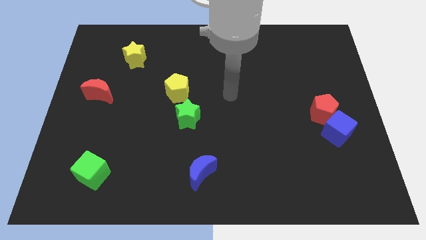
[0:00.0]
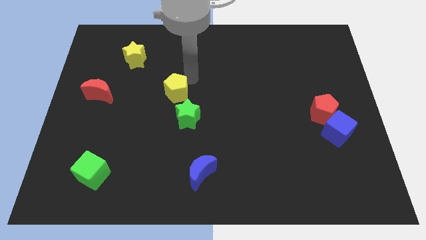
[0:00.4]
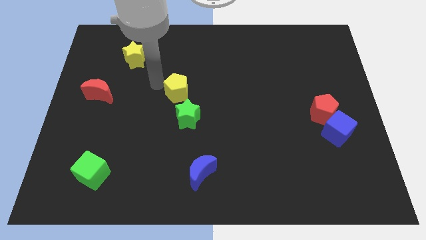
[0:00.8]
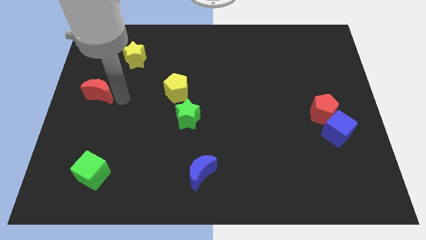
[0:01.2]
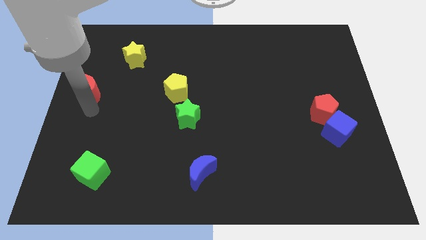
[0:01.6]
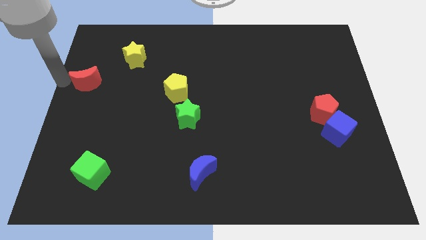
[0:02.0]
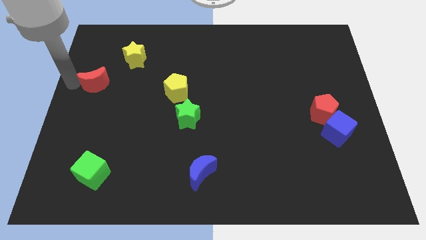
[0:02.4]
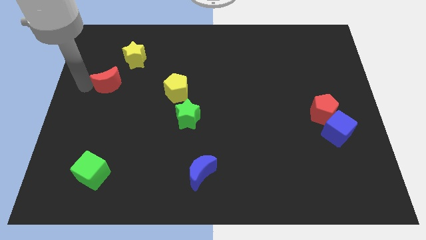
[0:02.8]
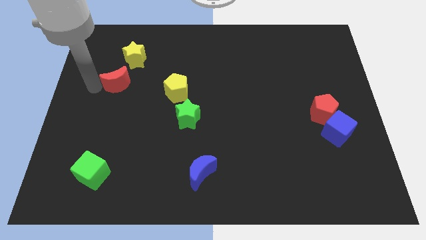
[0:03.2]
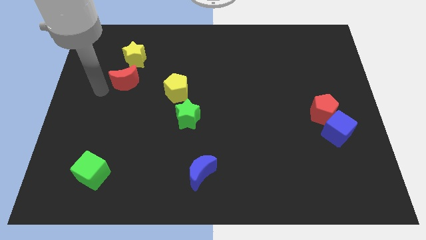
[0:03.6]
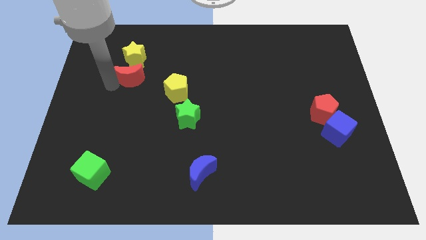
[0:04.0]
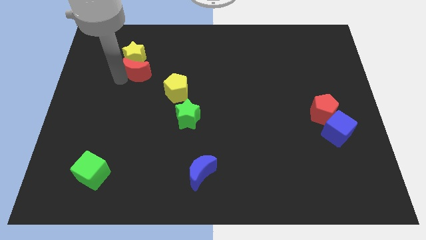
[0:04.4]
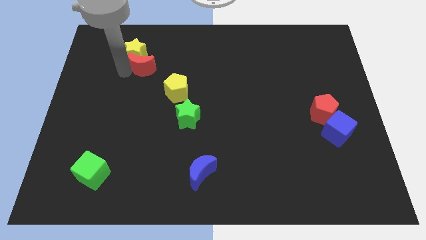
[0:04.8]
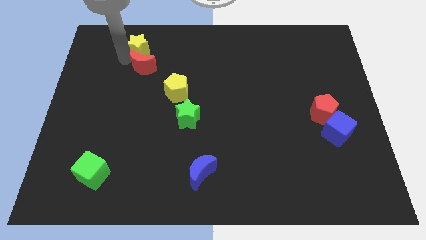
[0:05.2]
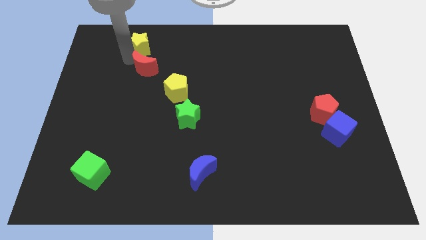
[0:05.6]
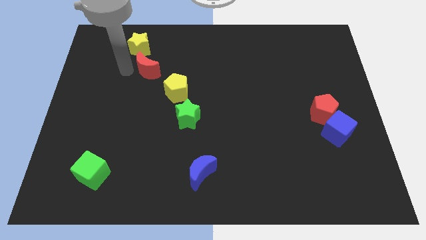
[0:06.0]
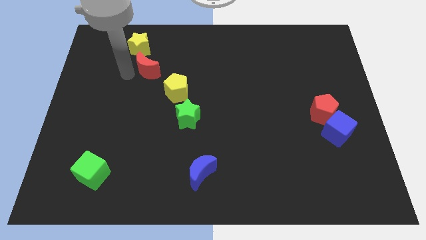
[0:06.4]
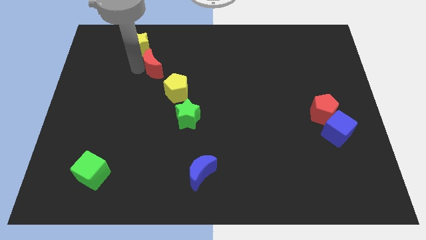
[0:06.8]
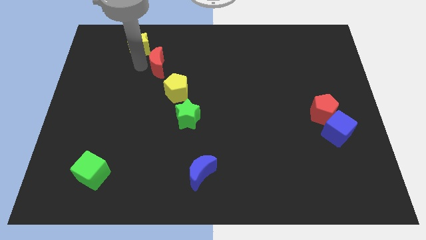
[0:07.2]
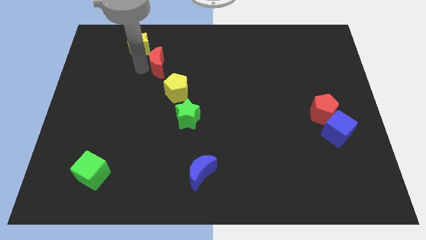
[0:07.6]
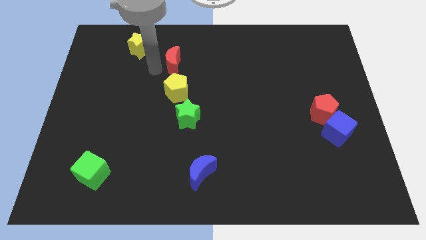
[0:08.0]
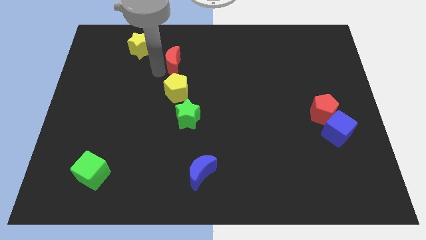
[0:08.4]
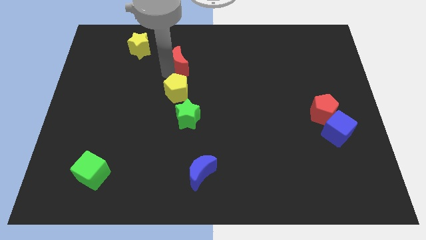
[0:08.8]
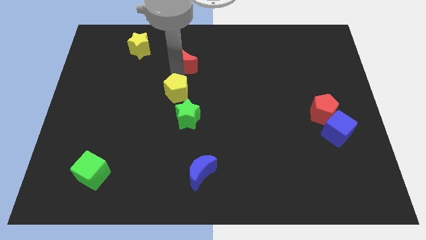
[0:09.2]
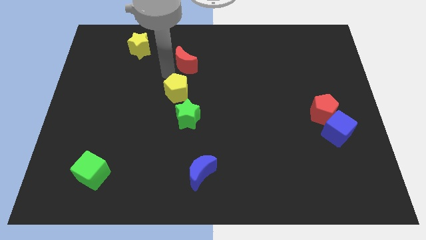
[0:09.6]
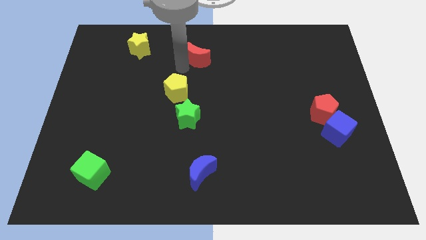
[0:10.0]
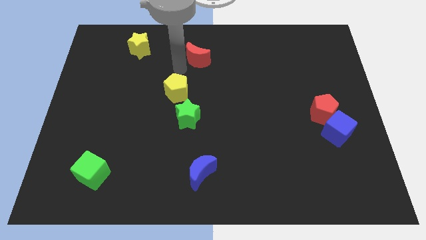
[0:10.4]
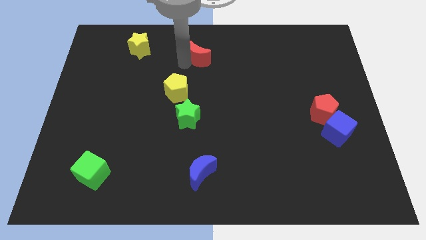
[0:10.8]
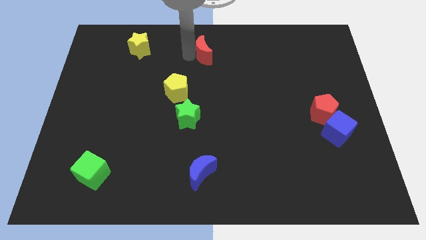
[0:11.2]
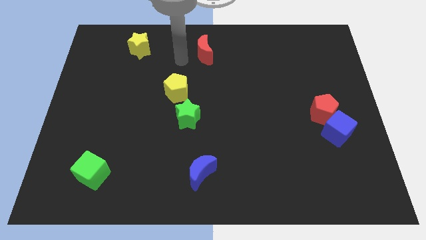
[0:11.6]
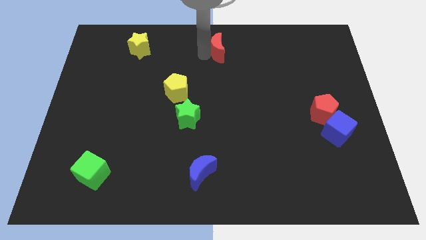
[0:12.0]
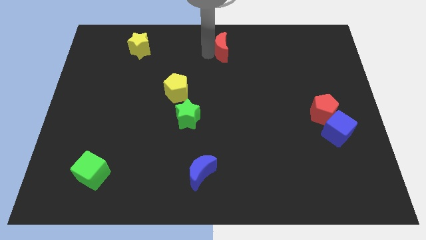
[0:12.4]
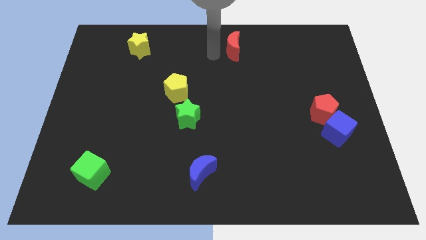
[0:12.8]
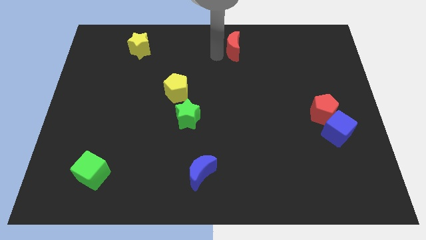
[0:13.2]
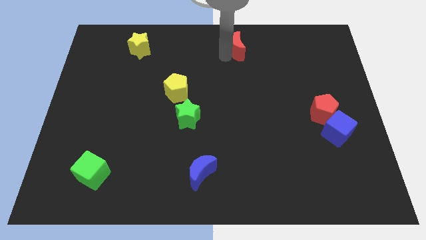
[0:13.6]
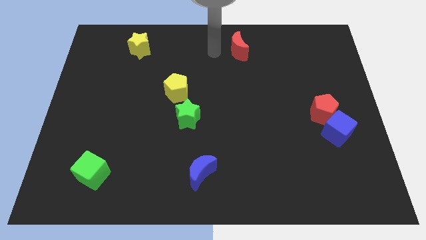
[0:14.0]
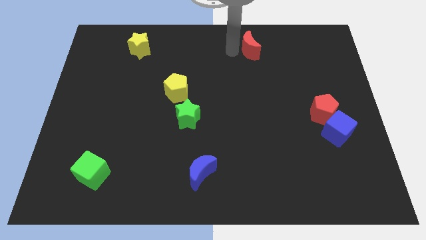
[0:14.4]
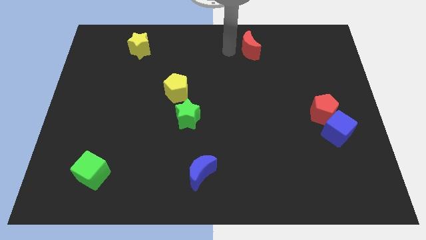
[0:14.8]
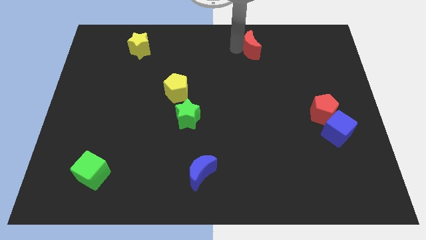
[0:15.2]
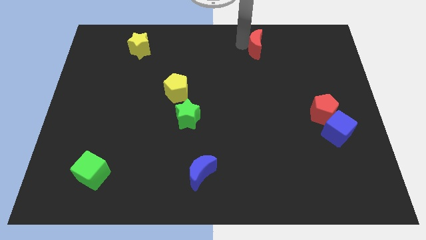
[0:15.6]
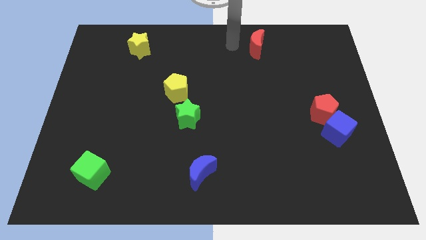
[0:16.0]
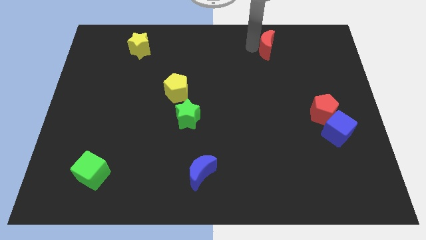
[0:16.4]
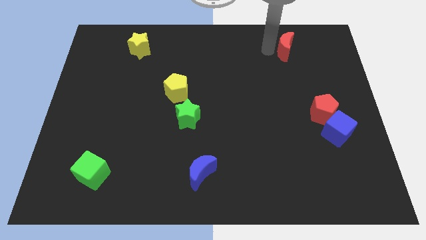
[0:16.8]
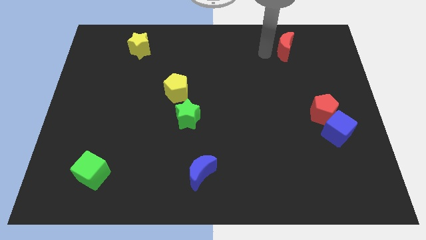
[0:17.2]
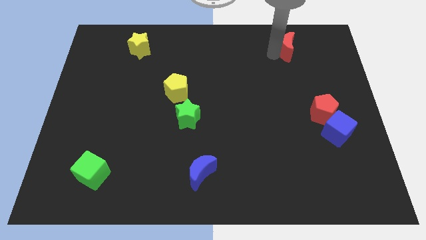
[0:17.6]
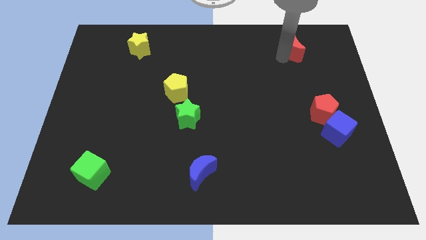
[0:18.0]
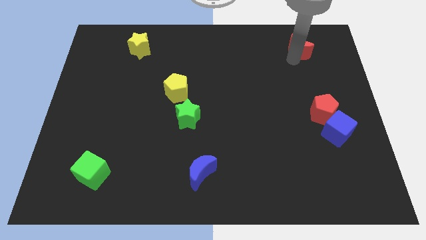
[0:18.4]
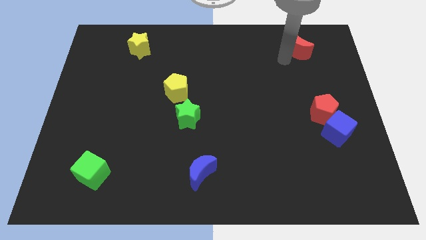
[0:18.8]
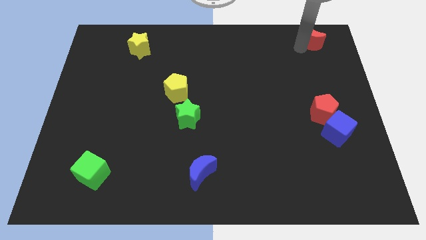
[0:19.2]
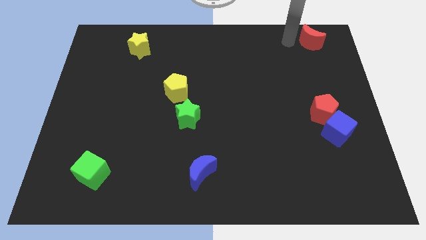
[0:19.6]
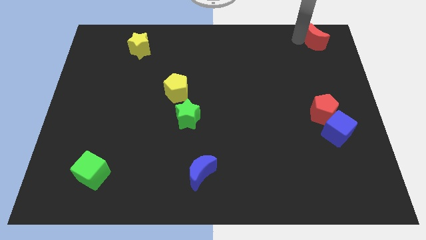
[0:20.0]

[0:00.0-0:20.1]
move the red moon to the top right of the board

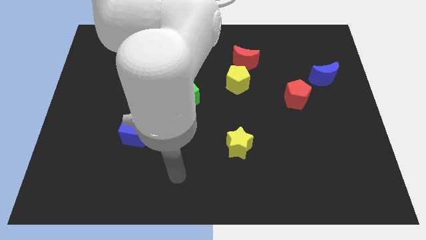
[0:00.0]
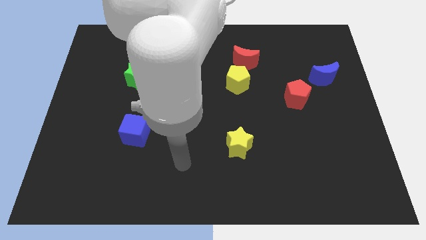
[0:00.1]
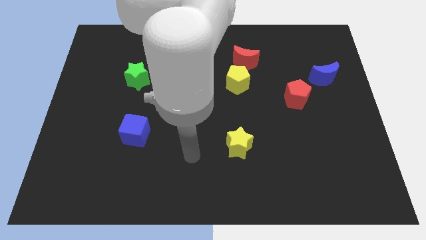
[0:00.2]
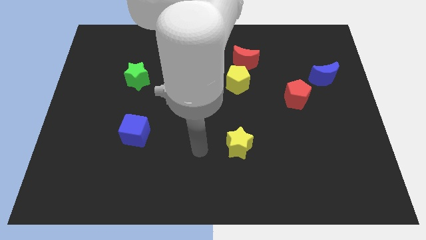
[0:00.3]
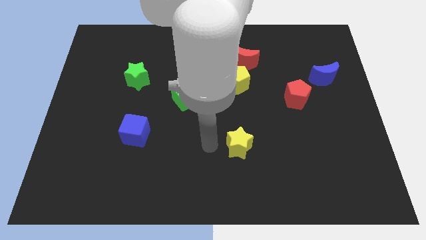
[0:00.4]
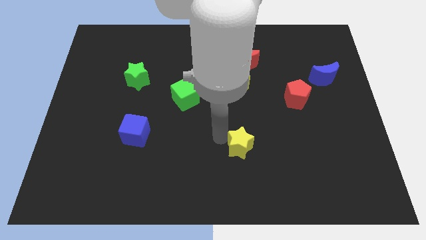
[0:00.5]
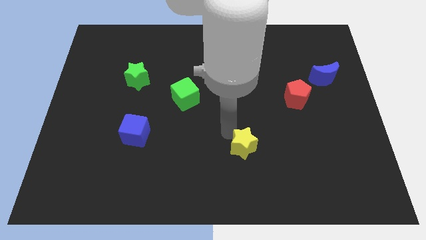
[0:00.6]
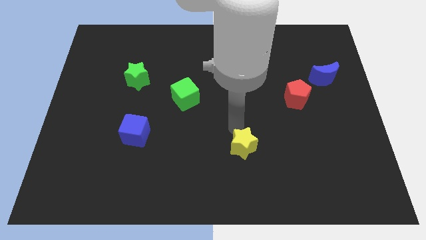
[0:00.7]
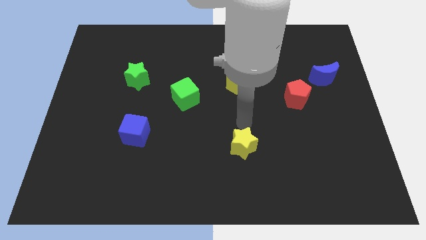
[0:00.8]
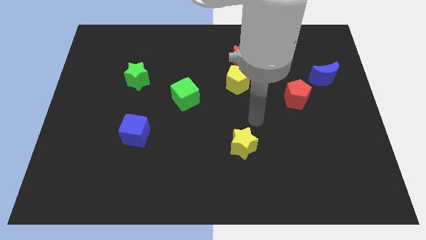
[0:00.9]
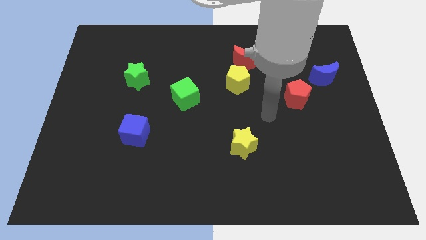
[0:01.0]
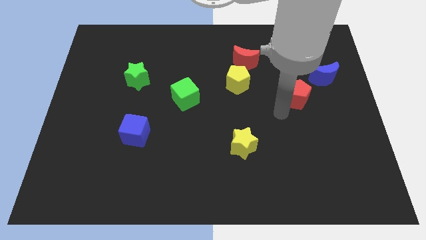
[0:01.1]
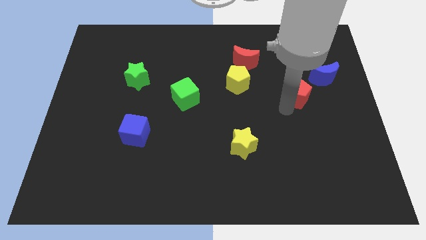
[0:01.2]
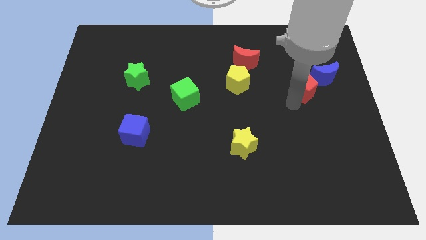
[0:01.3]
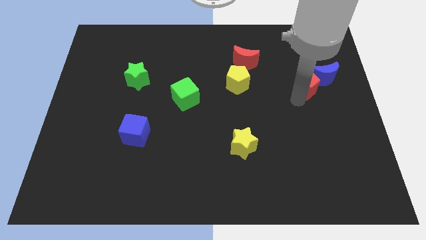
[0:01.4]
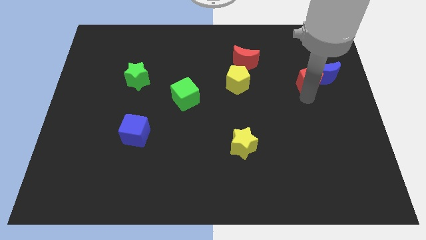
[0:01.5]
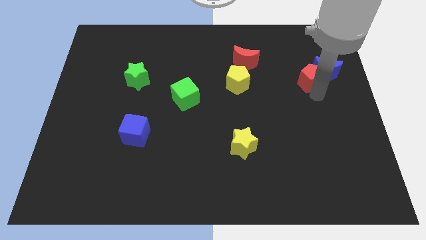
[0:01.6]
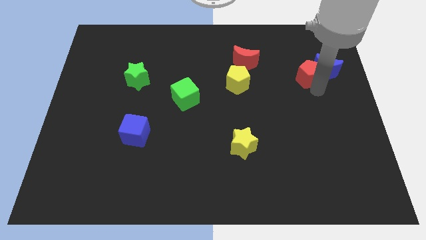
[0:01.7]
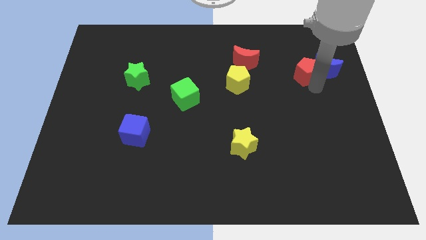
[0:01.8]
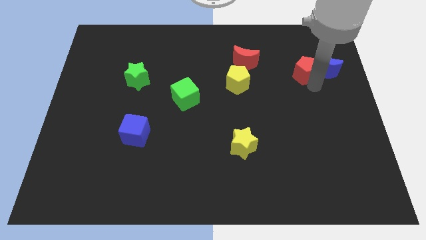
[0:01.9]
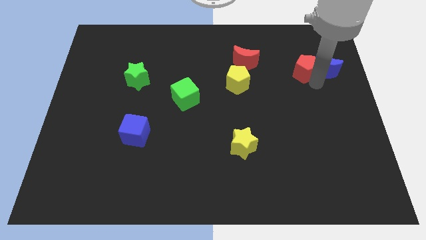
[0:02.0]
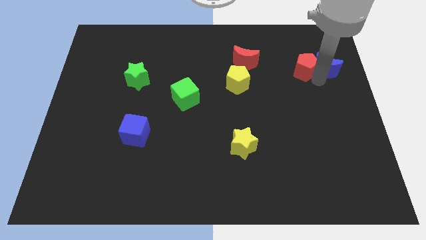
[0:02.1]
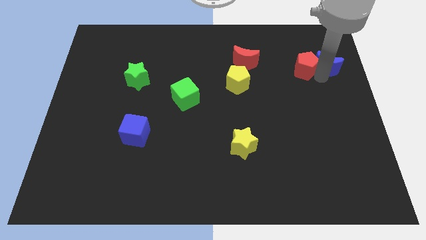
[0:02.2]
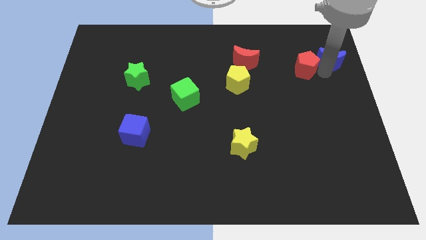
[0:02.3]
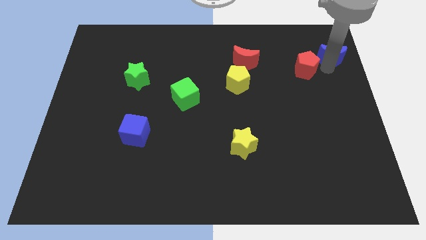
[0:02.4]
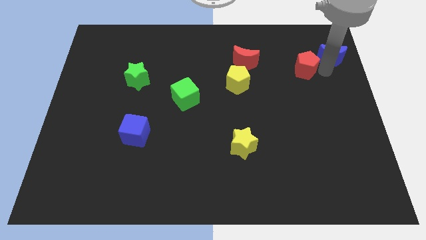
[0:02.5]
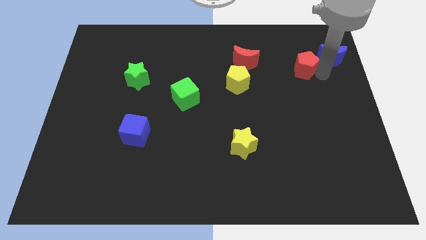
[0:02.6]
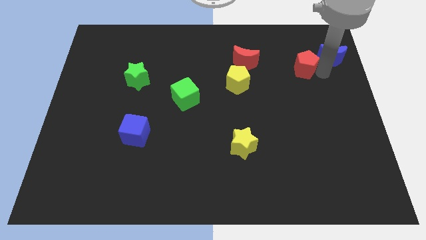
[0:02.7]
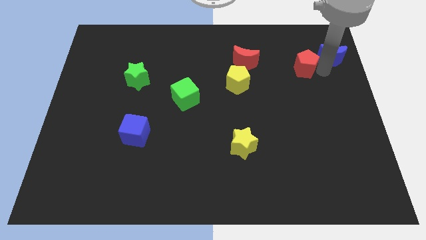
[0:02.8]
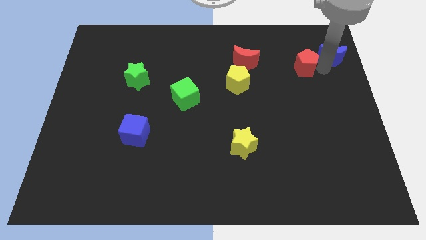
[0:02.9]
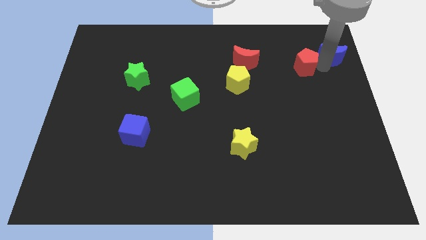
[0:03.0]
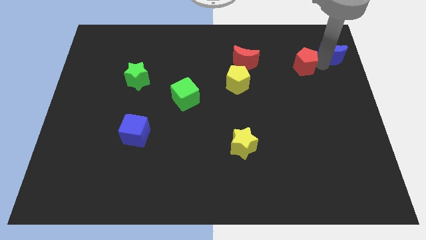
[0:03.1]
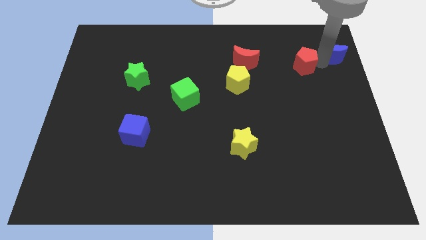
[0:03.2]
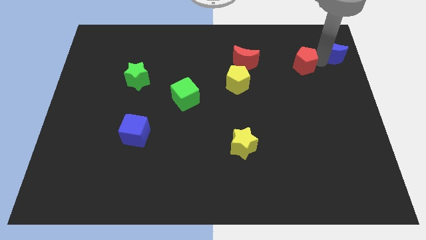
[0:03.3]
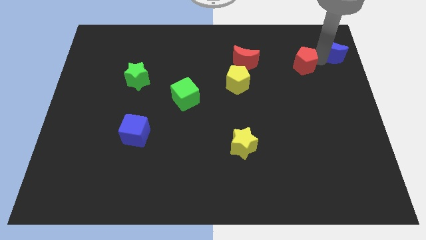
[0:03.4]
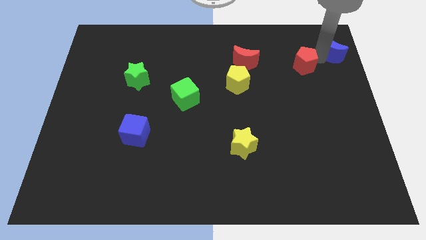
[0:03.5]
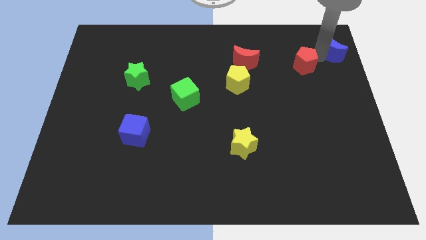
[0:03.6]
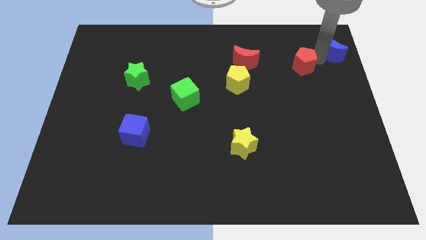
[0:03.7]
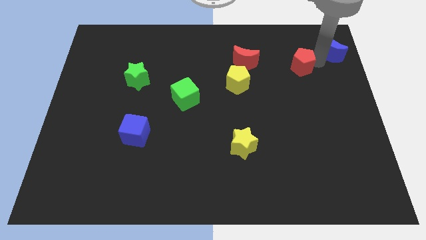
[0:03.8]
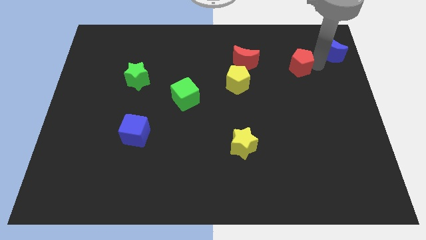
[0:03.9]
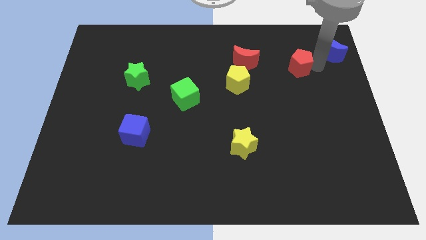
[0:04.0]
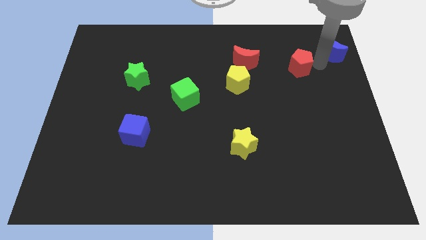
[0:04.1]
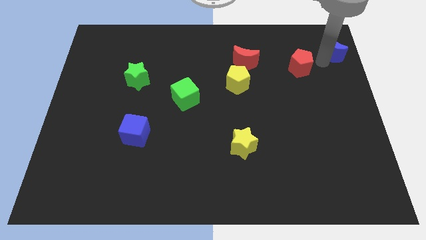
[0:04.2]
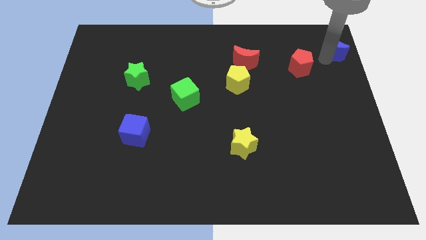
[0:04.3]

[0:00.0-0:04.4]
slide the blue moon to the top right of the board
